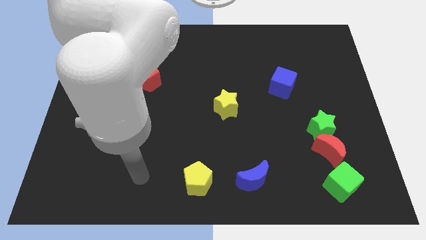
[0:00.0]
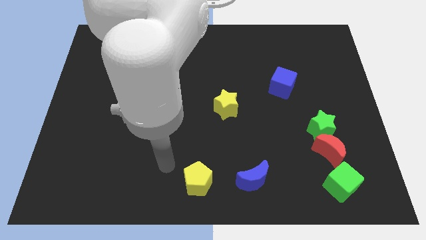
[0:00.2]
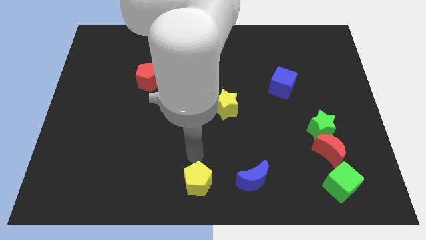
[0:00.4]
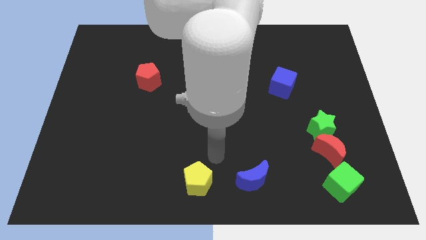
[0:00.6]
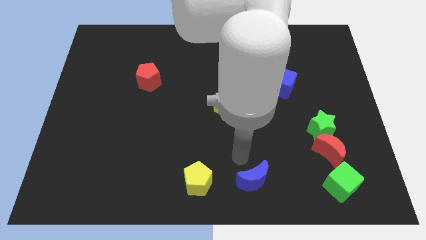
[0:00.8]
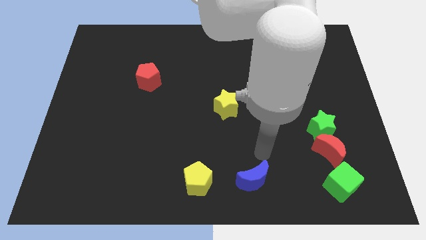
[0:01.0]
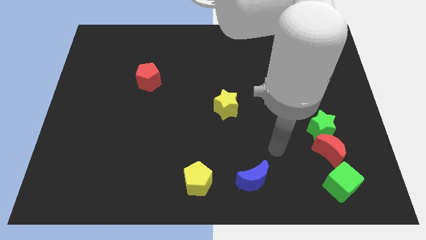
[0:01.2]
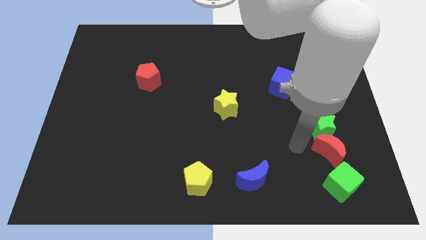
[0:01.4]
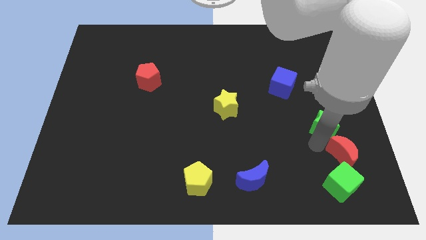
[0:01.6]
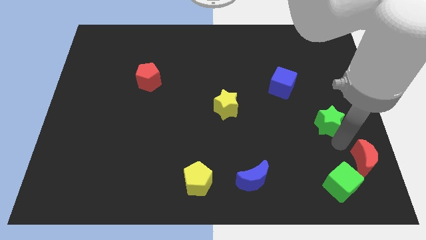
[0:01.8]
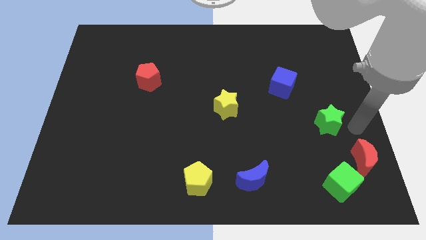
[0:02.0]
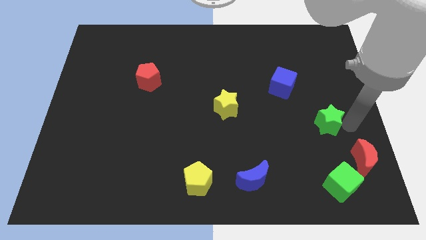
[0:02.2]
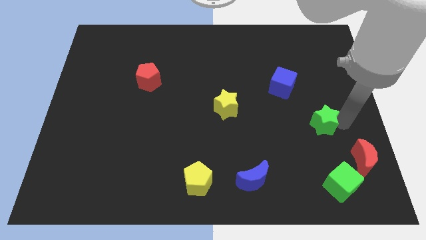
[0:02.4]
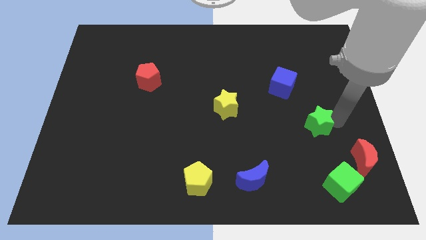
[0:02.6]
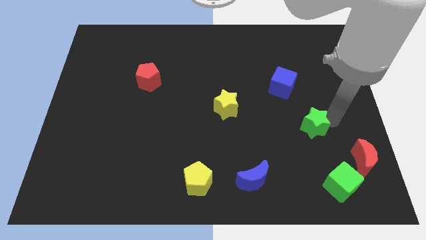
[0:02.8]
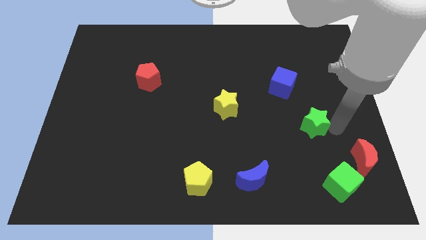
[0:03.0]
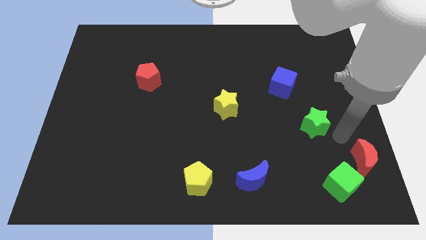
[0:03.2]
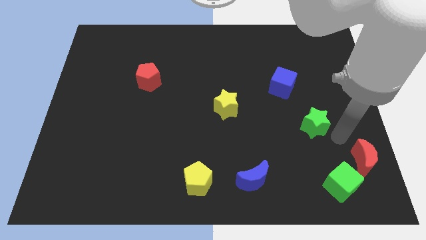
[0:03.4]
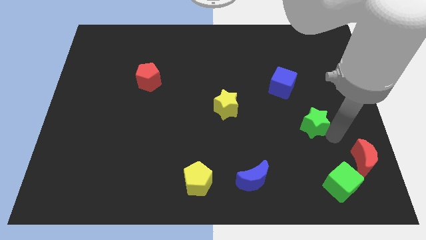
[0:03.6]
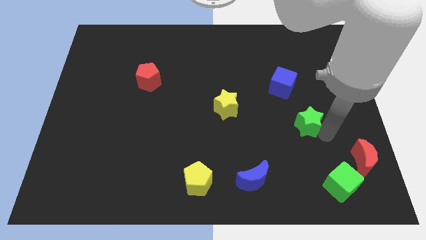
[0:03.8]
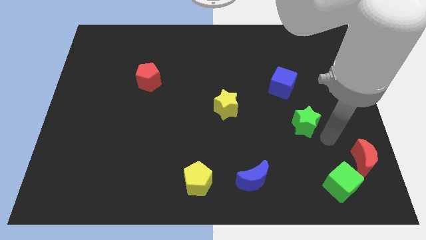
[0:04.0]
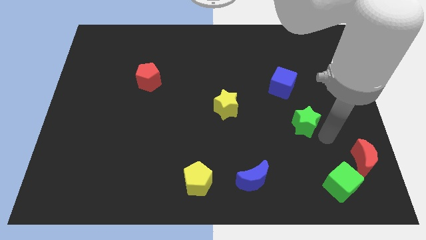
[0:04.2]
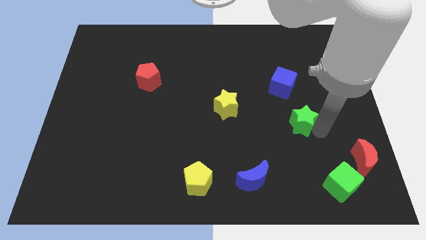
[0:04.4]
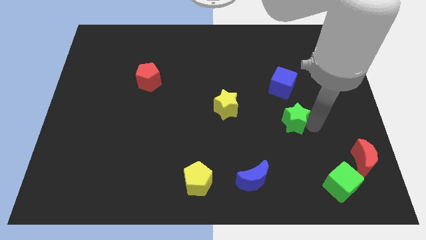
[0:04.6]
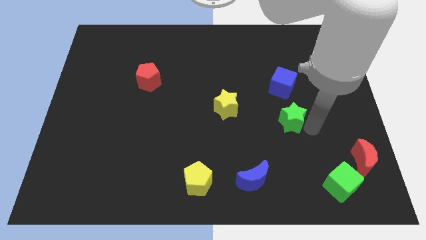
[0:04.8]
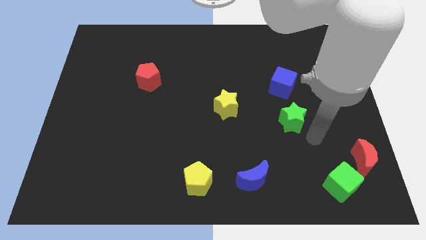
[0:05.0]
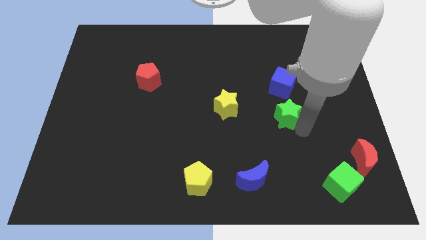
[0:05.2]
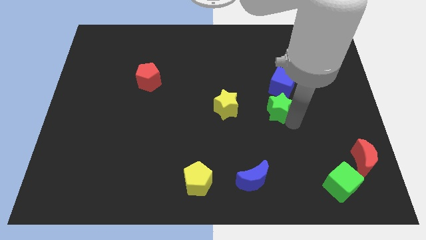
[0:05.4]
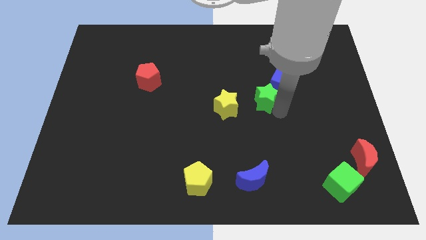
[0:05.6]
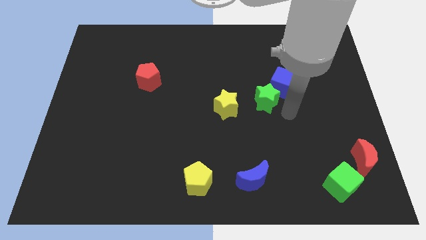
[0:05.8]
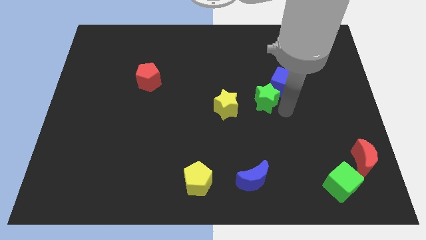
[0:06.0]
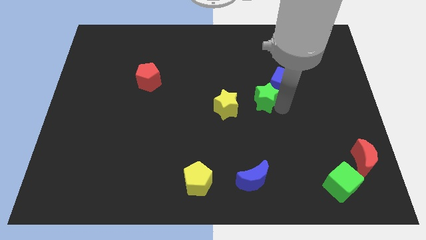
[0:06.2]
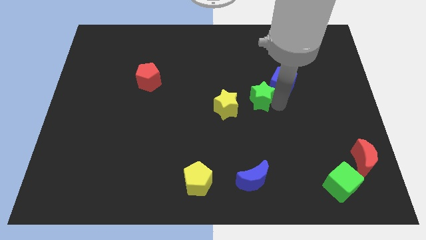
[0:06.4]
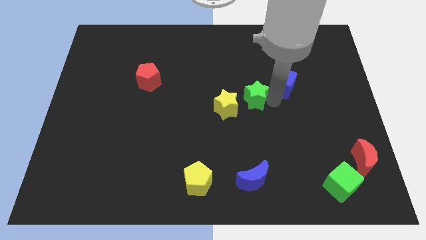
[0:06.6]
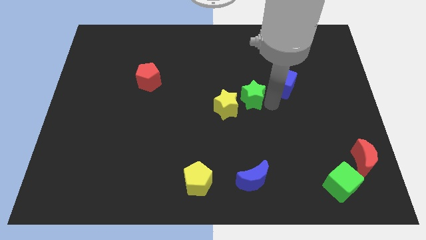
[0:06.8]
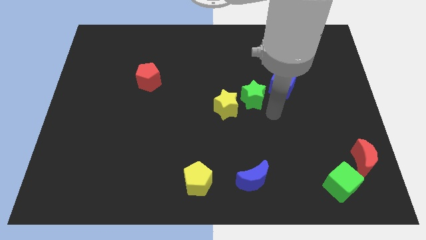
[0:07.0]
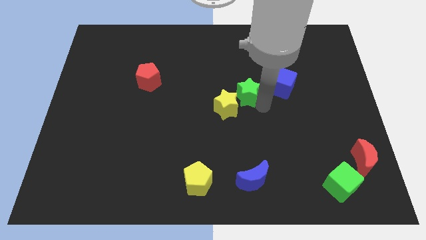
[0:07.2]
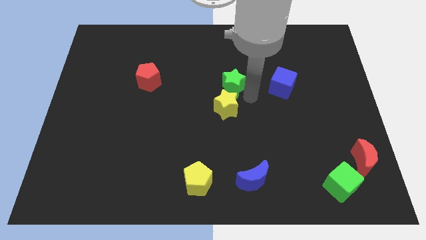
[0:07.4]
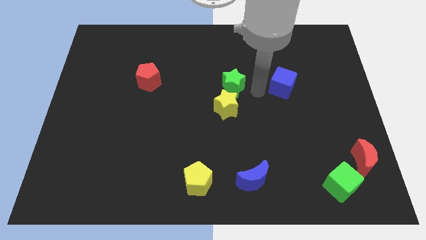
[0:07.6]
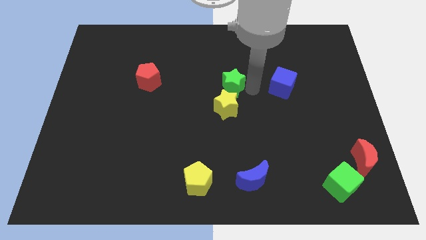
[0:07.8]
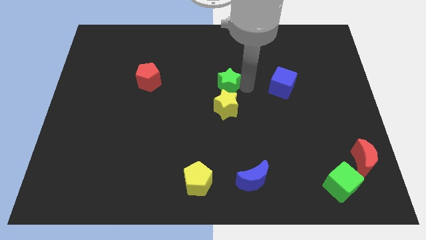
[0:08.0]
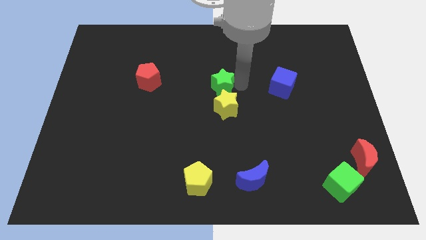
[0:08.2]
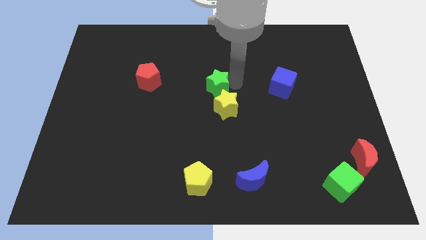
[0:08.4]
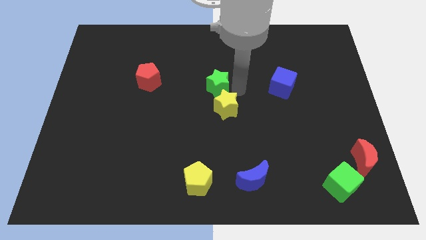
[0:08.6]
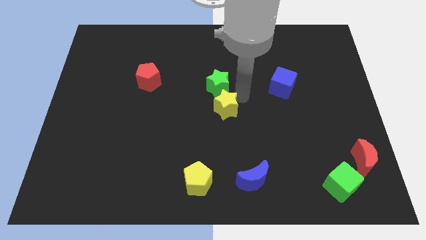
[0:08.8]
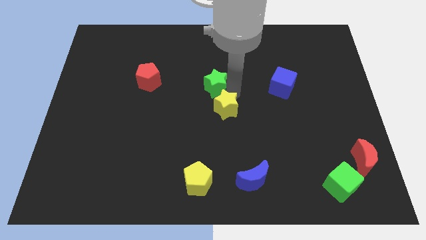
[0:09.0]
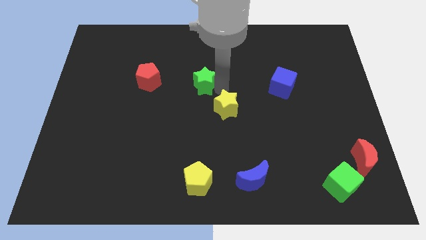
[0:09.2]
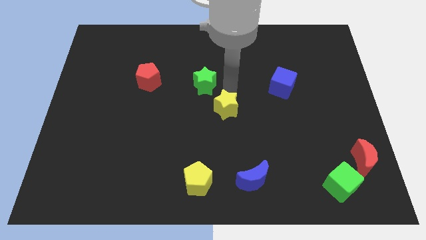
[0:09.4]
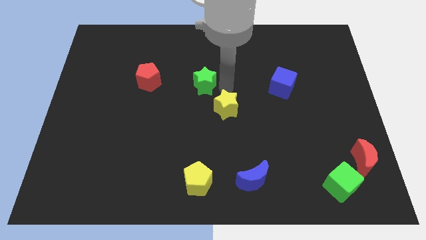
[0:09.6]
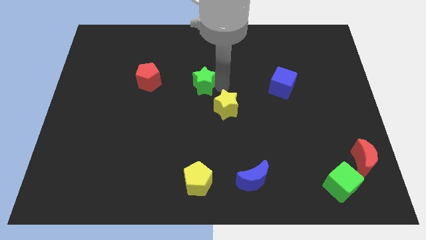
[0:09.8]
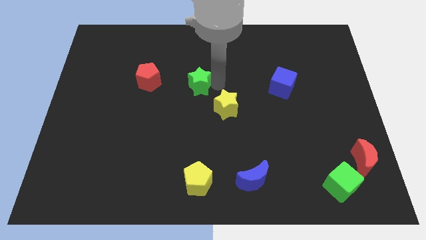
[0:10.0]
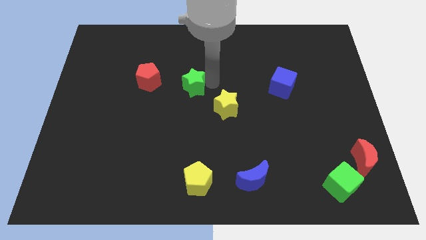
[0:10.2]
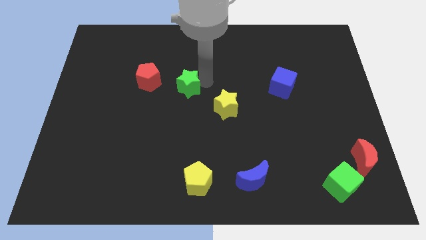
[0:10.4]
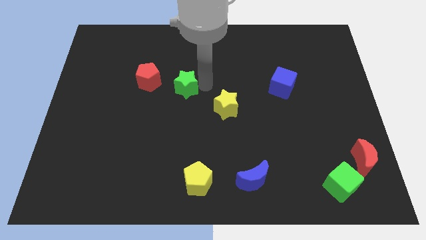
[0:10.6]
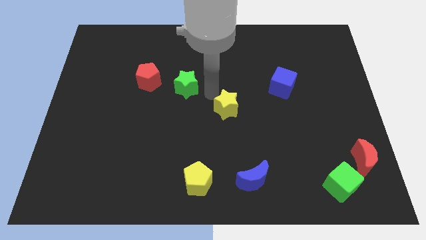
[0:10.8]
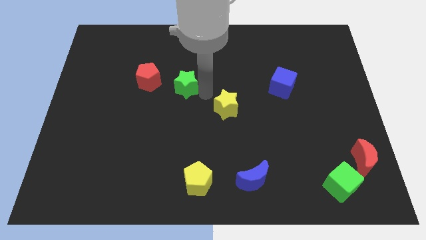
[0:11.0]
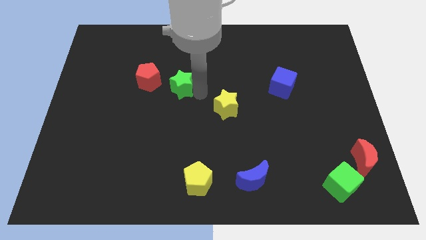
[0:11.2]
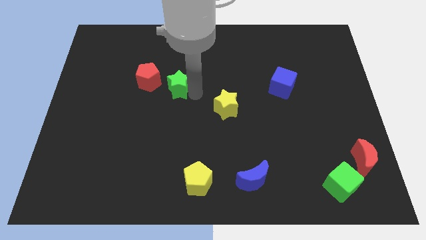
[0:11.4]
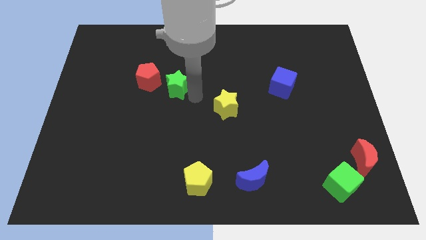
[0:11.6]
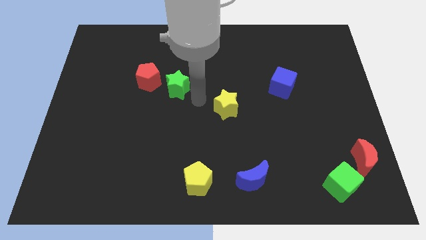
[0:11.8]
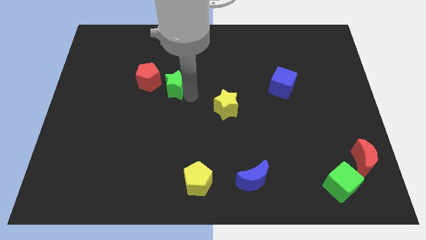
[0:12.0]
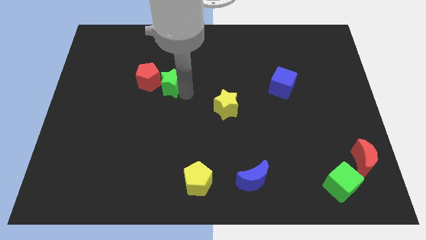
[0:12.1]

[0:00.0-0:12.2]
slide the green star close to the red pentagon
